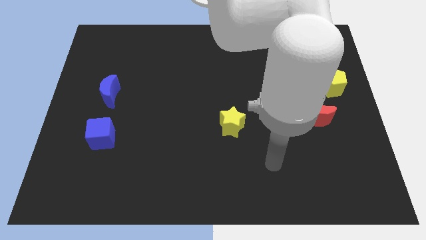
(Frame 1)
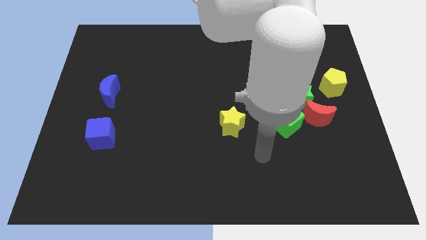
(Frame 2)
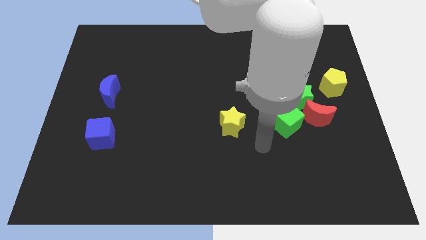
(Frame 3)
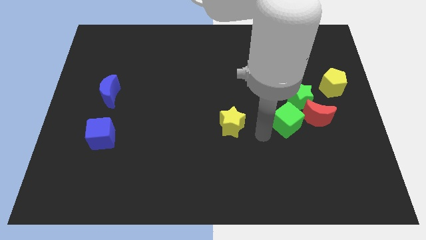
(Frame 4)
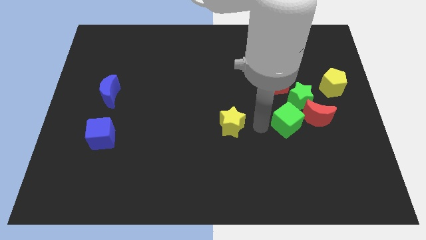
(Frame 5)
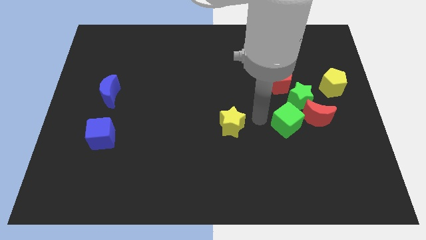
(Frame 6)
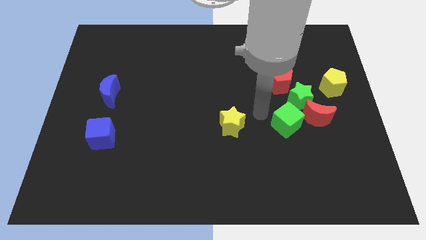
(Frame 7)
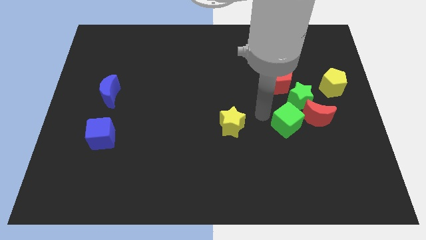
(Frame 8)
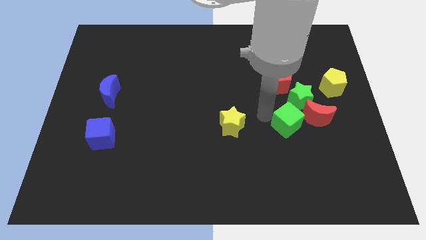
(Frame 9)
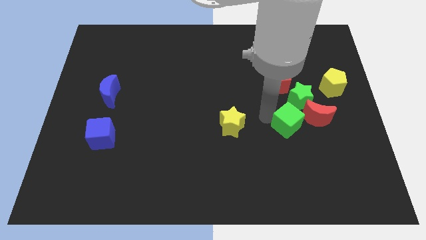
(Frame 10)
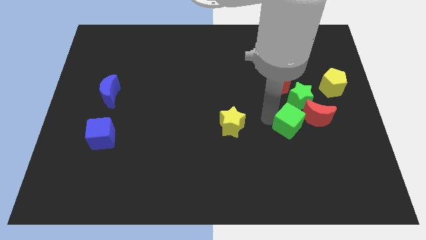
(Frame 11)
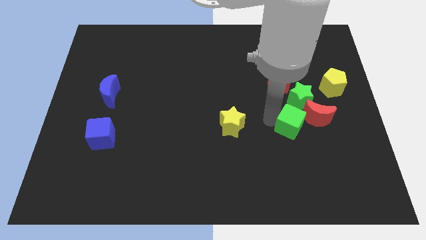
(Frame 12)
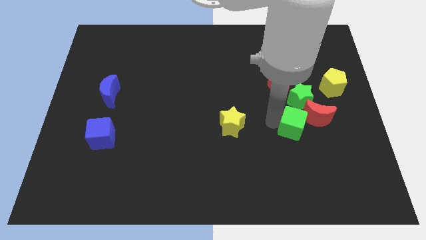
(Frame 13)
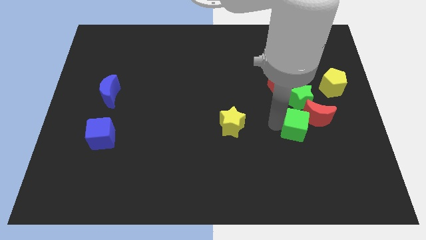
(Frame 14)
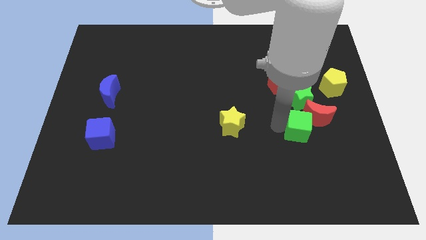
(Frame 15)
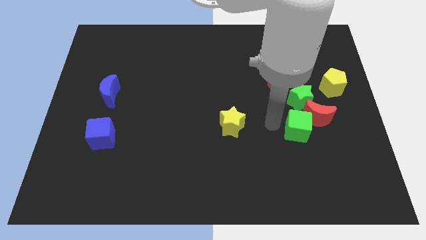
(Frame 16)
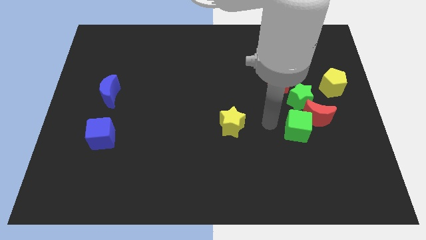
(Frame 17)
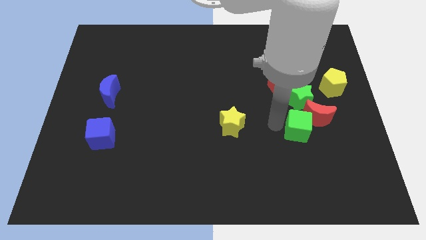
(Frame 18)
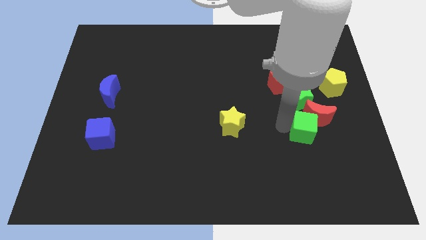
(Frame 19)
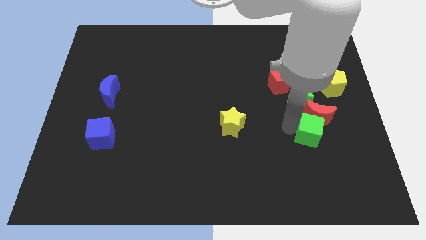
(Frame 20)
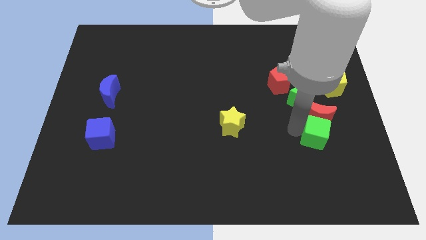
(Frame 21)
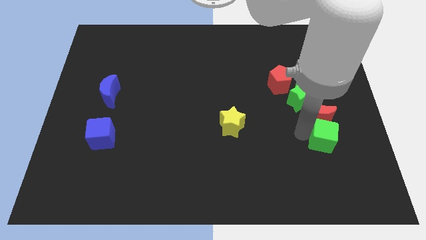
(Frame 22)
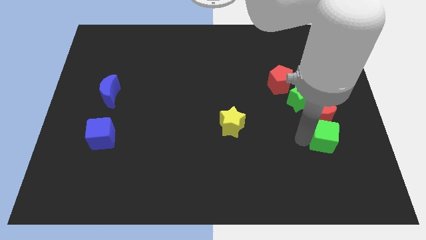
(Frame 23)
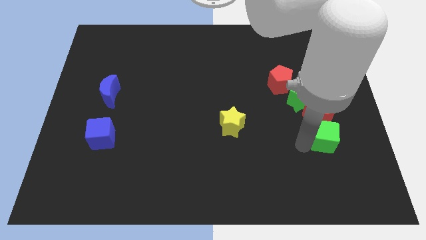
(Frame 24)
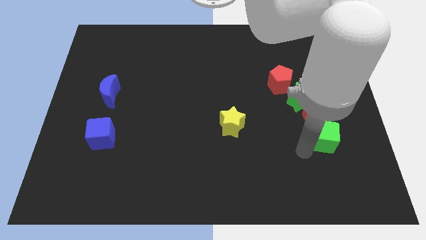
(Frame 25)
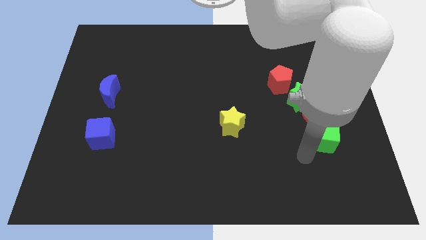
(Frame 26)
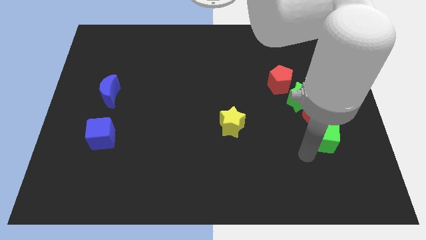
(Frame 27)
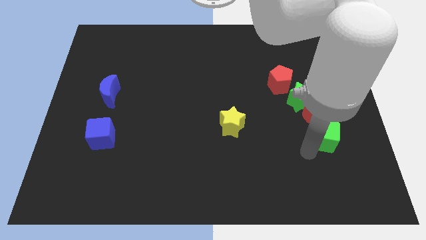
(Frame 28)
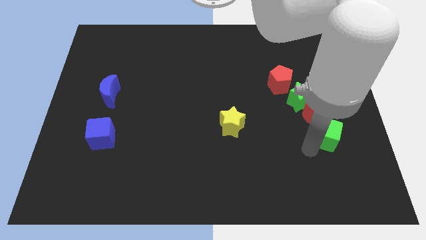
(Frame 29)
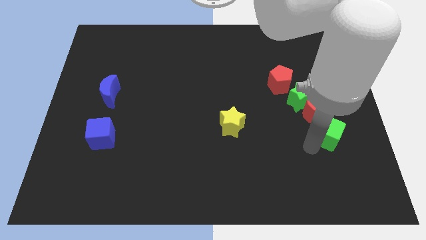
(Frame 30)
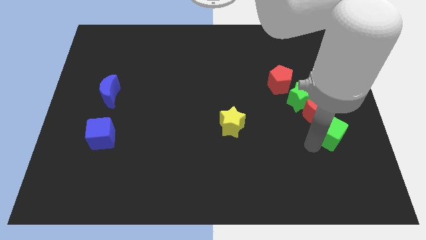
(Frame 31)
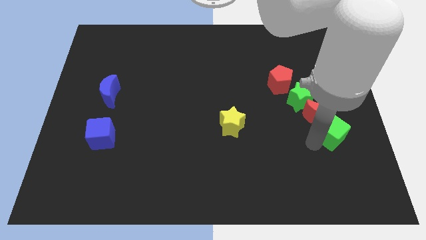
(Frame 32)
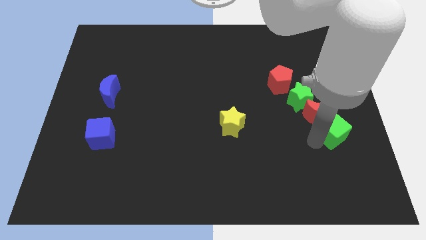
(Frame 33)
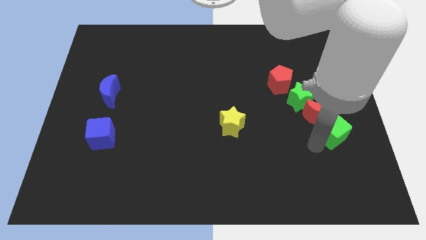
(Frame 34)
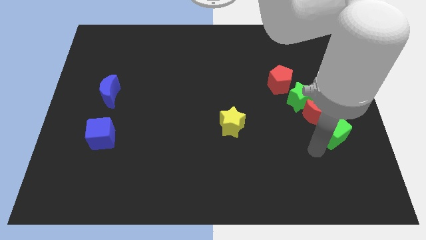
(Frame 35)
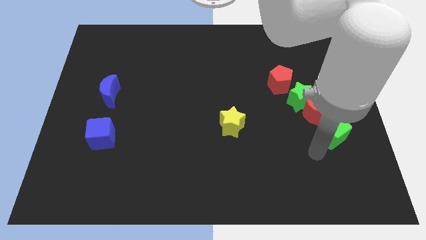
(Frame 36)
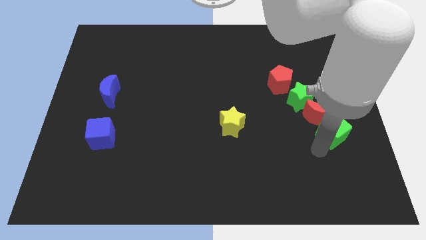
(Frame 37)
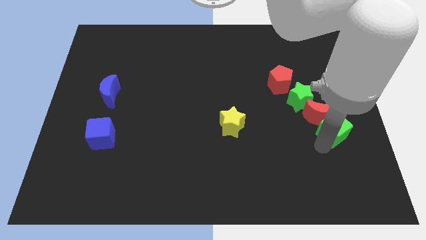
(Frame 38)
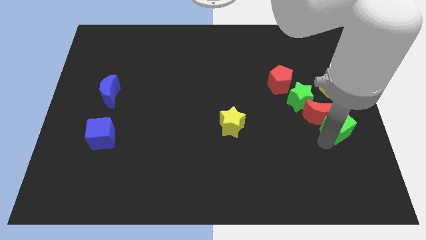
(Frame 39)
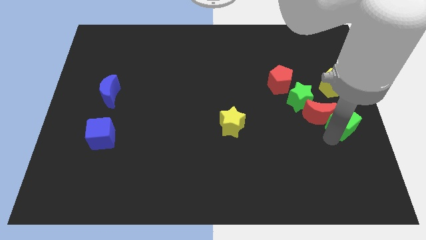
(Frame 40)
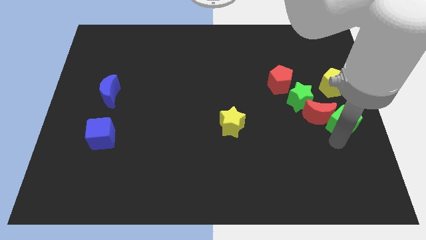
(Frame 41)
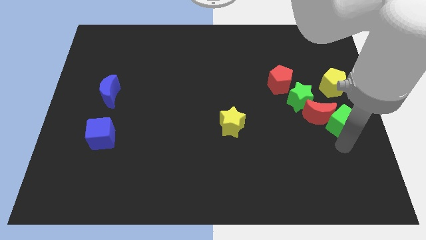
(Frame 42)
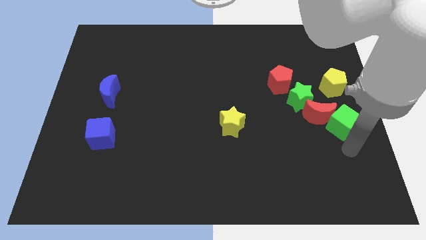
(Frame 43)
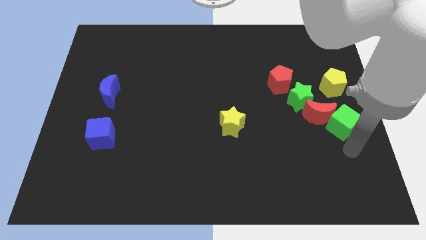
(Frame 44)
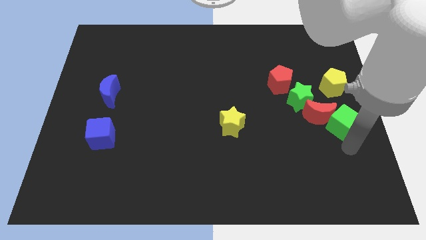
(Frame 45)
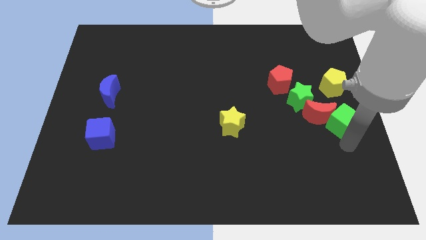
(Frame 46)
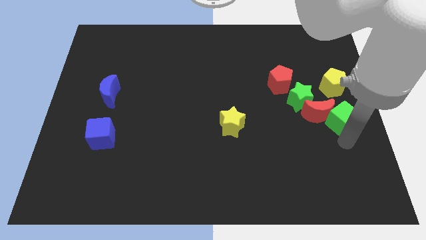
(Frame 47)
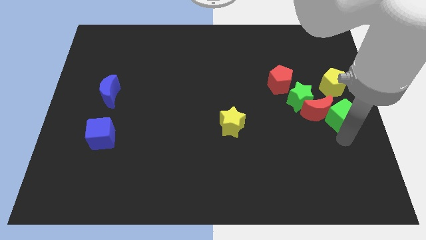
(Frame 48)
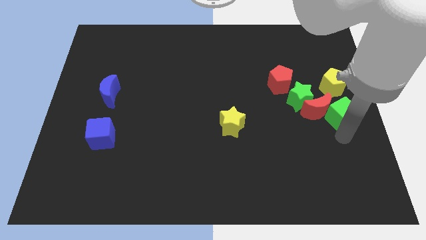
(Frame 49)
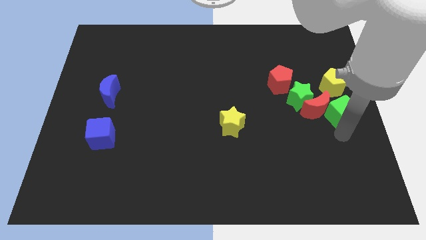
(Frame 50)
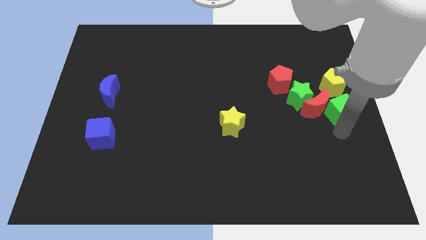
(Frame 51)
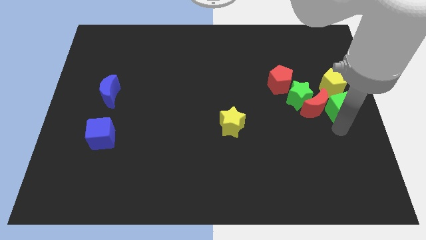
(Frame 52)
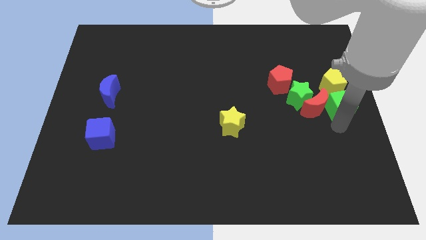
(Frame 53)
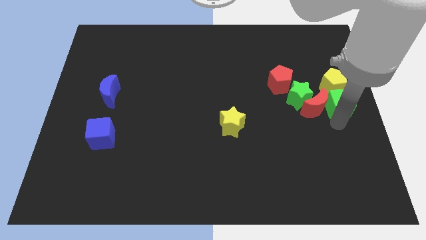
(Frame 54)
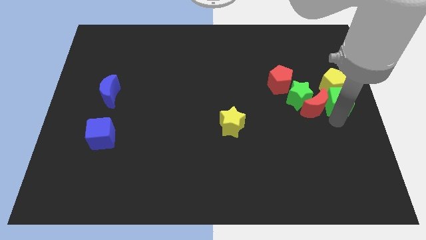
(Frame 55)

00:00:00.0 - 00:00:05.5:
push the green cube next to the yellow pentagon

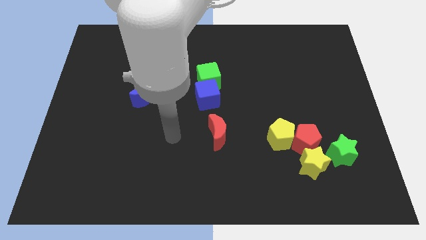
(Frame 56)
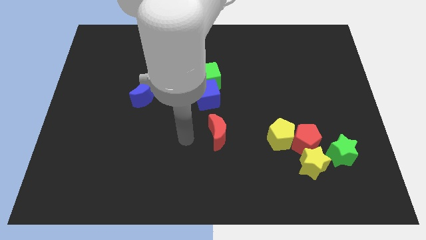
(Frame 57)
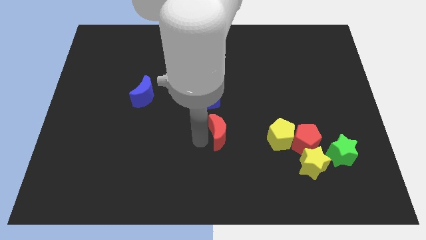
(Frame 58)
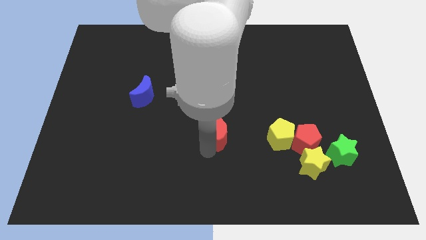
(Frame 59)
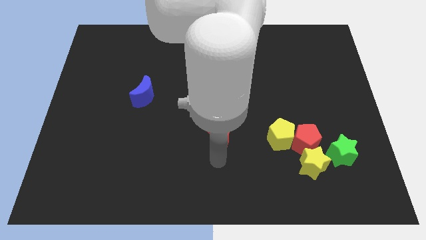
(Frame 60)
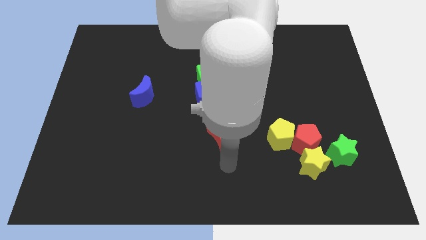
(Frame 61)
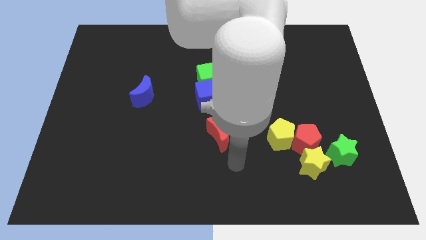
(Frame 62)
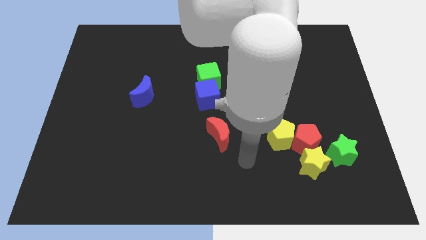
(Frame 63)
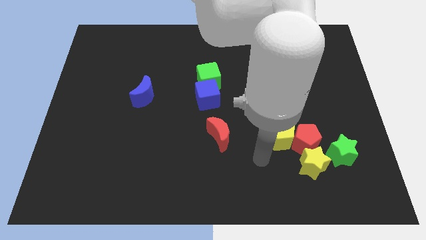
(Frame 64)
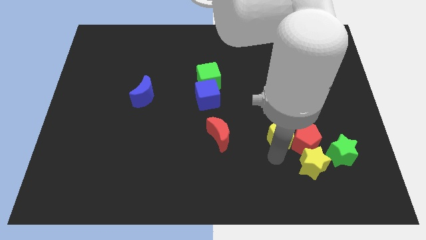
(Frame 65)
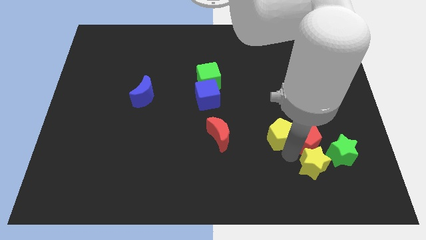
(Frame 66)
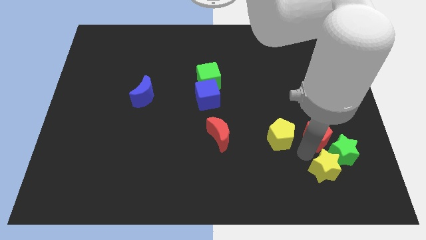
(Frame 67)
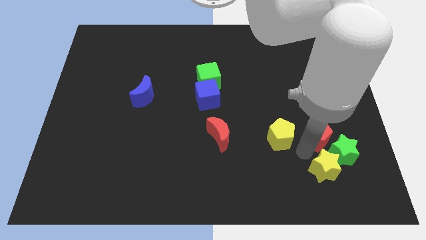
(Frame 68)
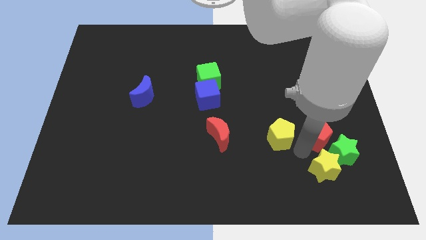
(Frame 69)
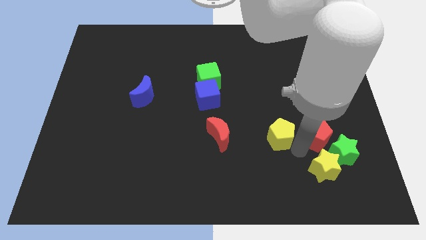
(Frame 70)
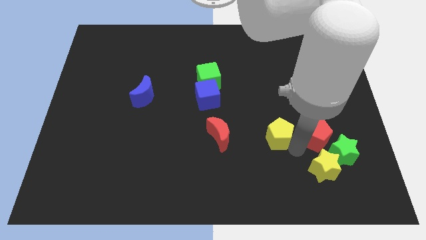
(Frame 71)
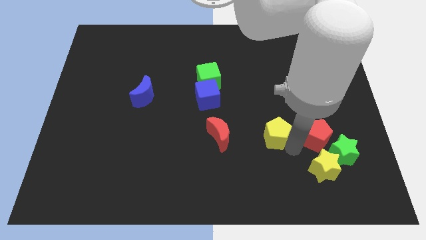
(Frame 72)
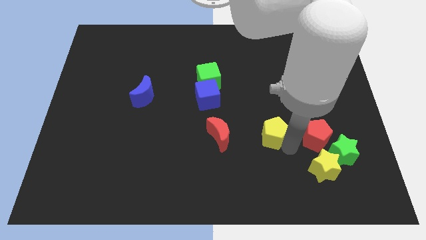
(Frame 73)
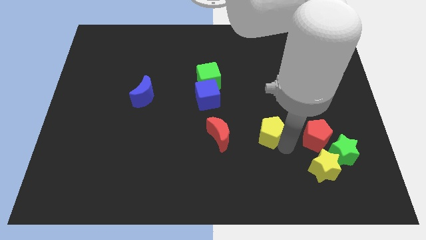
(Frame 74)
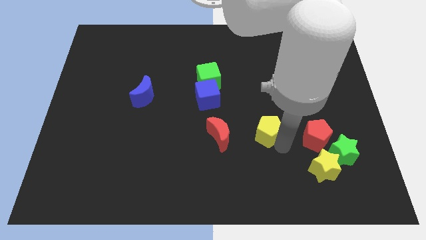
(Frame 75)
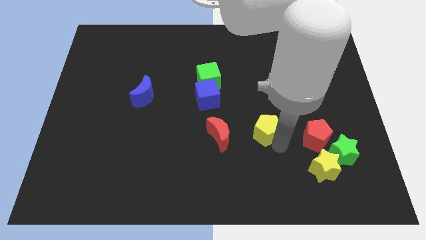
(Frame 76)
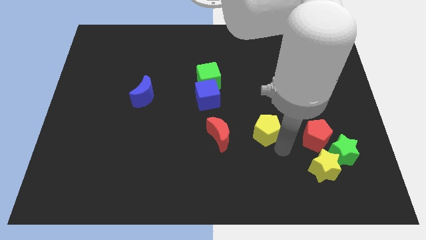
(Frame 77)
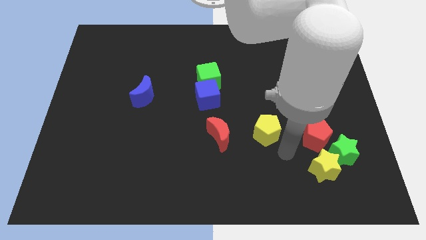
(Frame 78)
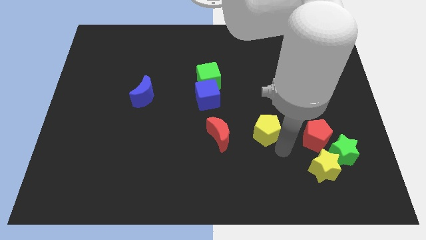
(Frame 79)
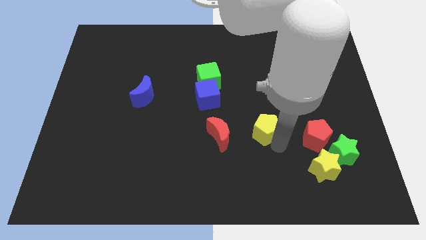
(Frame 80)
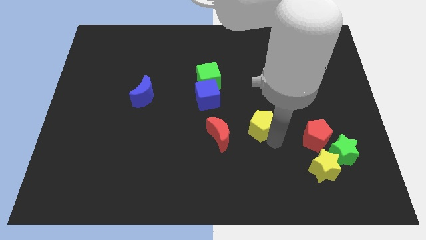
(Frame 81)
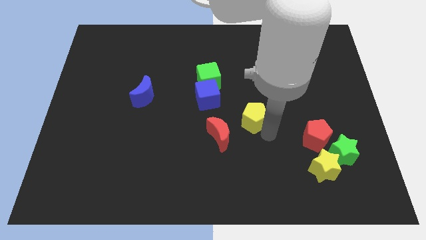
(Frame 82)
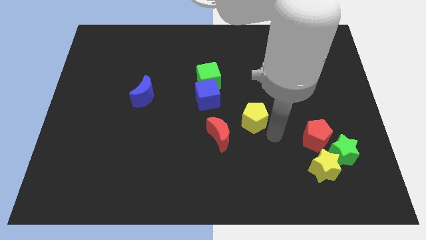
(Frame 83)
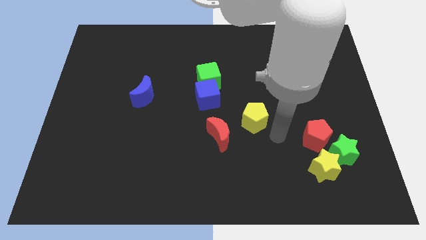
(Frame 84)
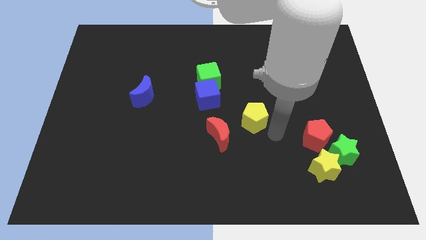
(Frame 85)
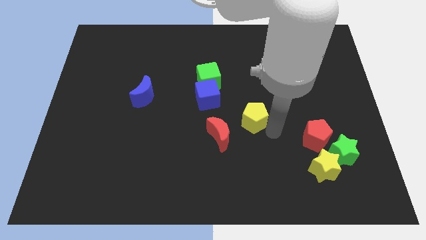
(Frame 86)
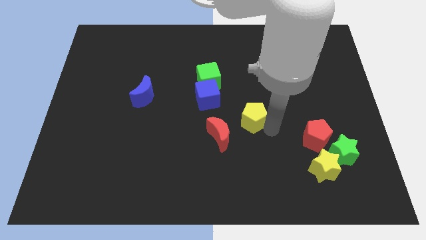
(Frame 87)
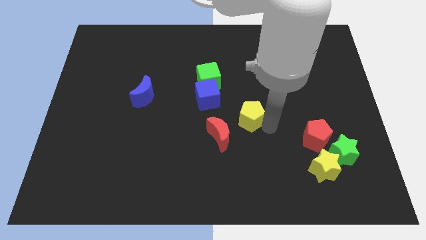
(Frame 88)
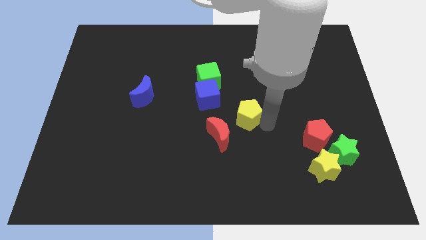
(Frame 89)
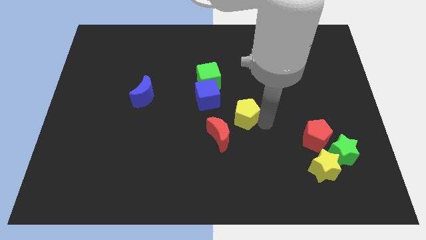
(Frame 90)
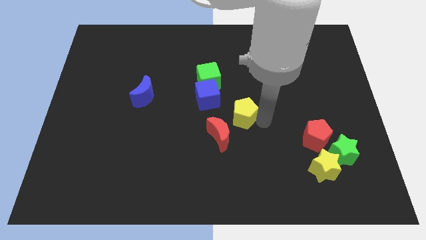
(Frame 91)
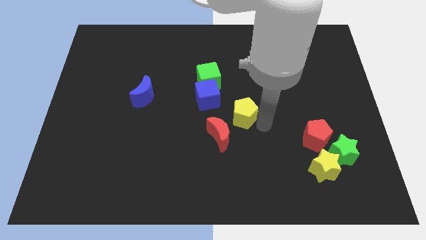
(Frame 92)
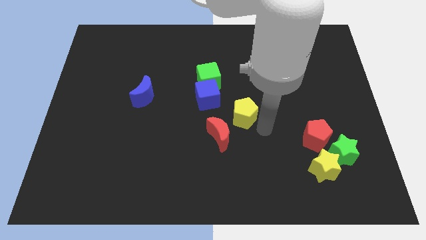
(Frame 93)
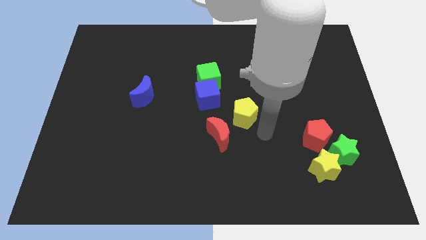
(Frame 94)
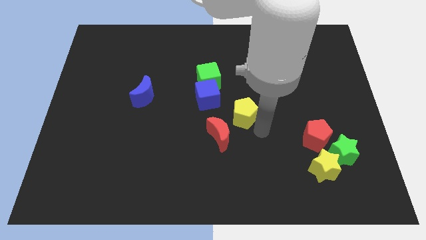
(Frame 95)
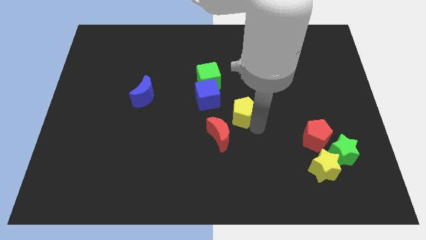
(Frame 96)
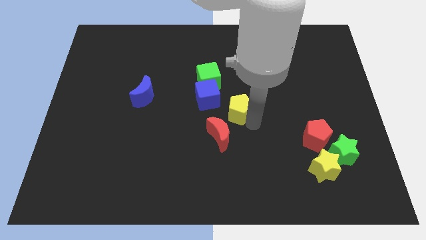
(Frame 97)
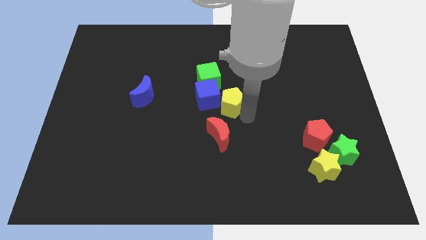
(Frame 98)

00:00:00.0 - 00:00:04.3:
slide the yellow pentagon close to the blue cube
